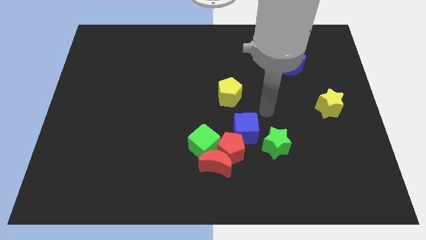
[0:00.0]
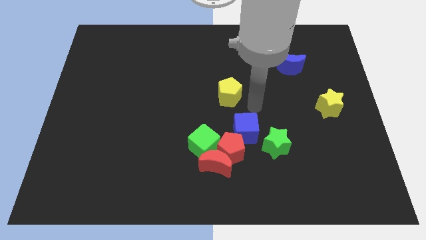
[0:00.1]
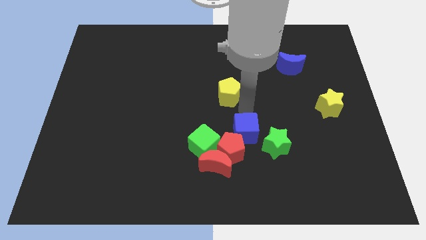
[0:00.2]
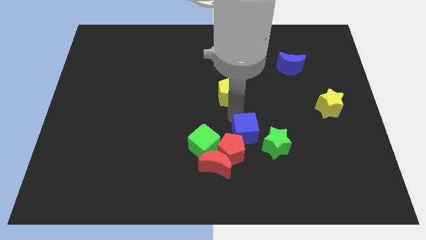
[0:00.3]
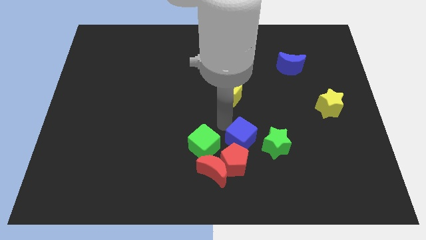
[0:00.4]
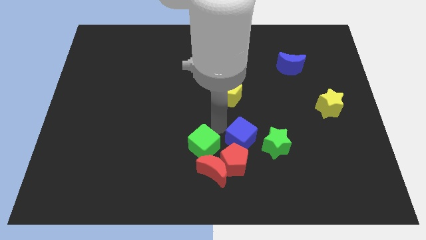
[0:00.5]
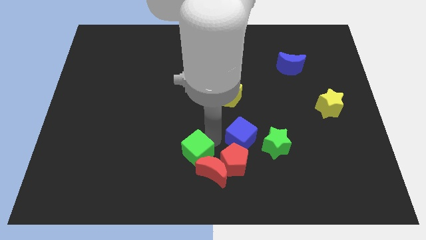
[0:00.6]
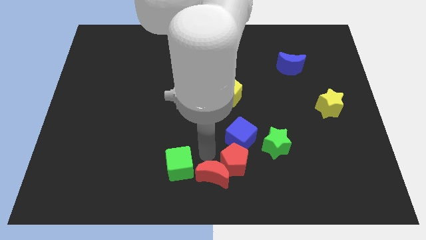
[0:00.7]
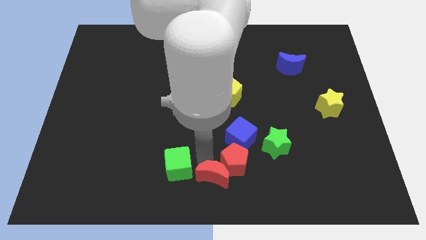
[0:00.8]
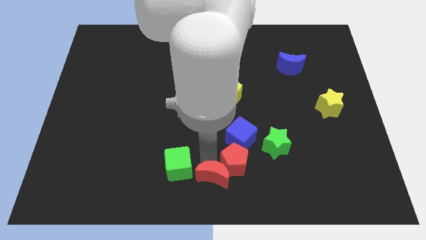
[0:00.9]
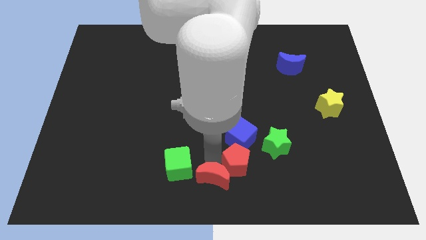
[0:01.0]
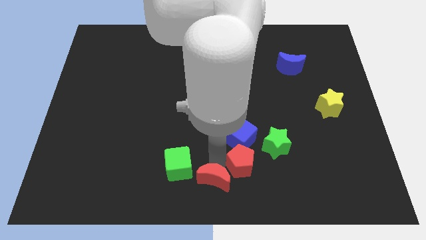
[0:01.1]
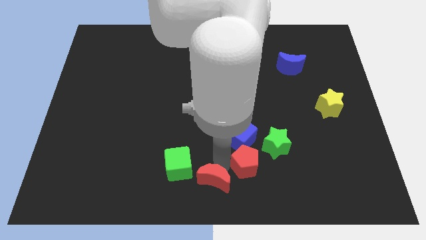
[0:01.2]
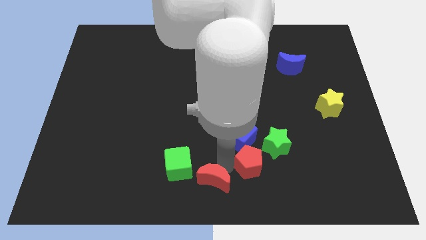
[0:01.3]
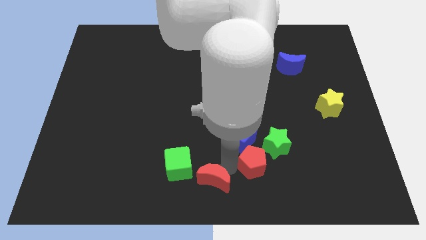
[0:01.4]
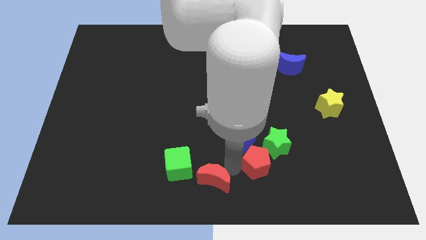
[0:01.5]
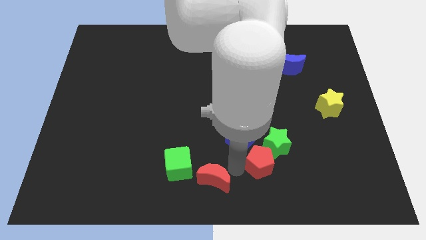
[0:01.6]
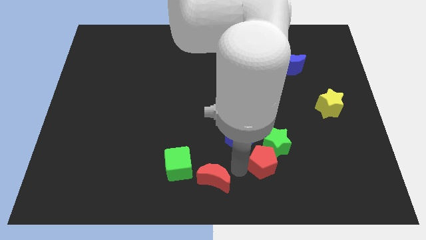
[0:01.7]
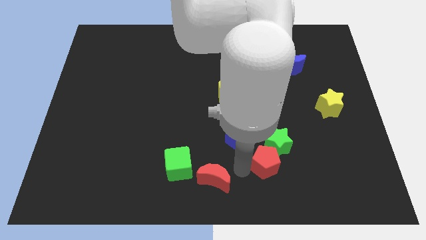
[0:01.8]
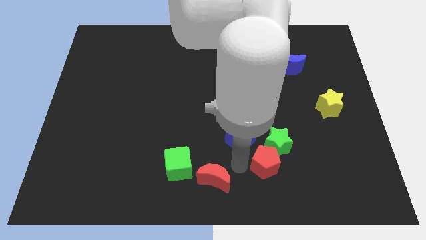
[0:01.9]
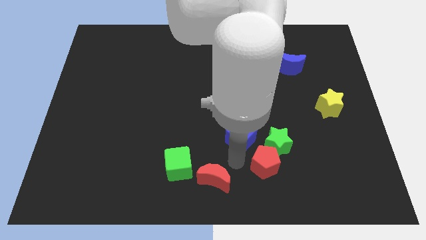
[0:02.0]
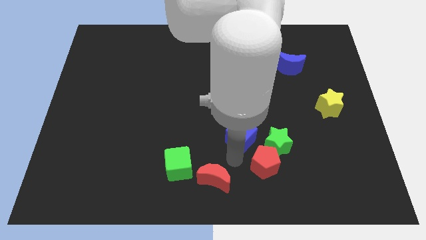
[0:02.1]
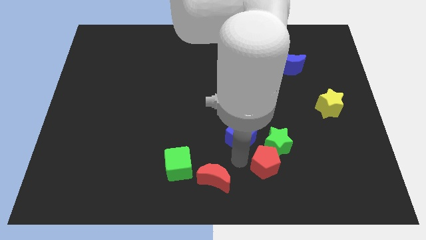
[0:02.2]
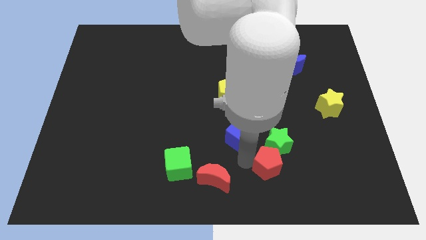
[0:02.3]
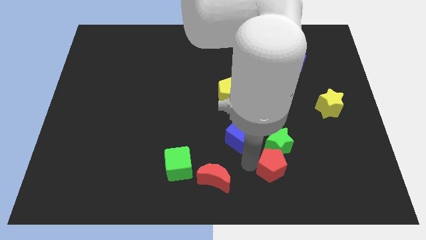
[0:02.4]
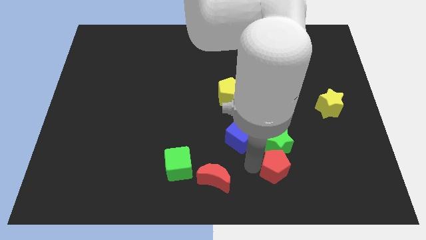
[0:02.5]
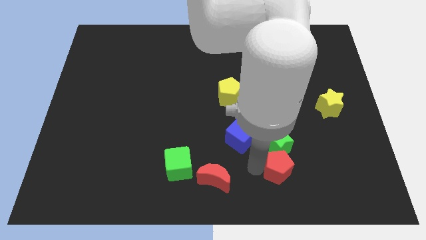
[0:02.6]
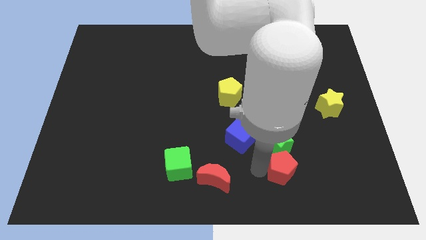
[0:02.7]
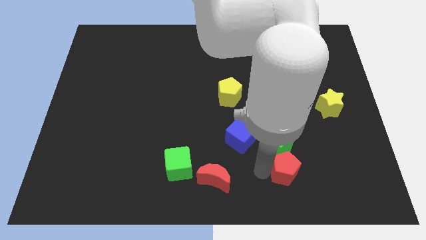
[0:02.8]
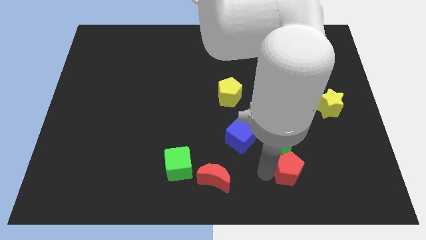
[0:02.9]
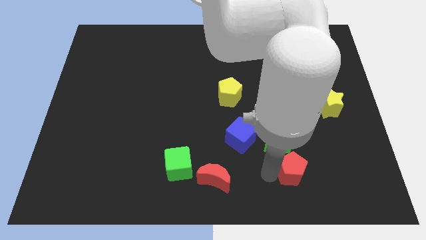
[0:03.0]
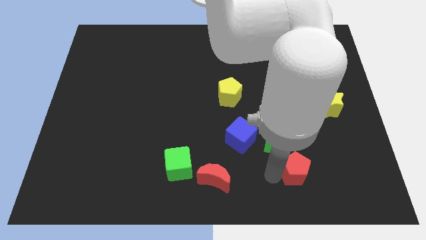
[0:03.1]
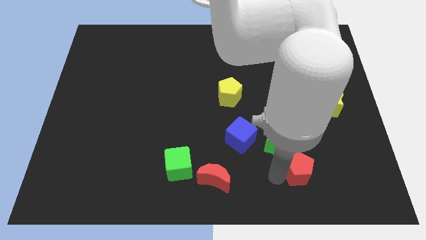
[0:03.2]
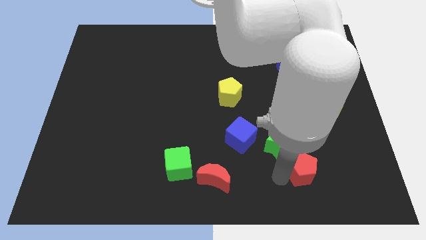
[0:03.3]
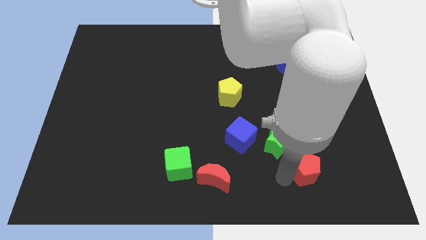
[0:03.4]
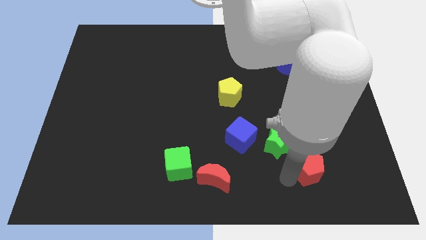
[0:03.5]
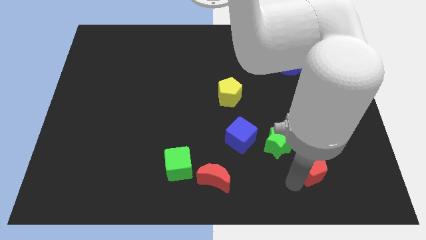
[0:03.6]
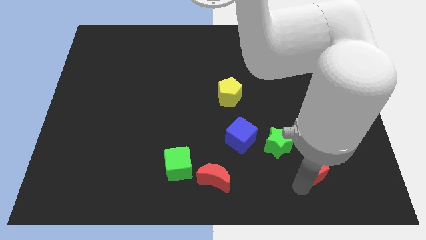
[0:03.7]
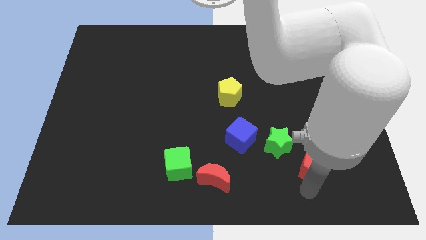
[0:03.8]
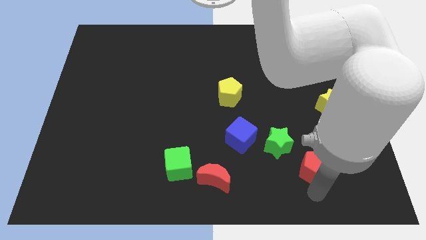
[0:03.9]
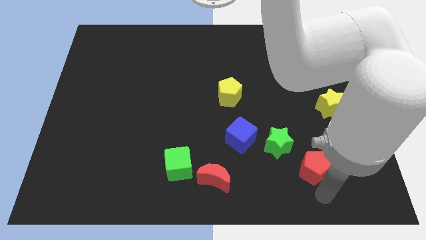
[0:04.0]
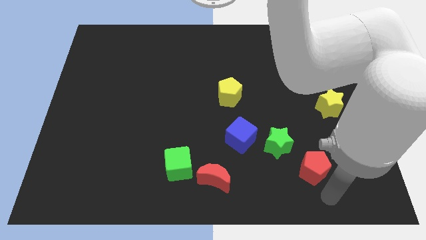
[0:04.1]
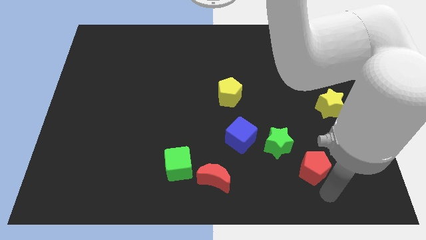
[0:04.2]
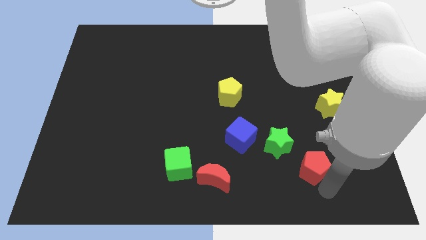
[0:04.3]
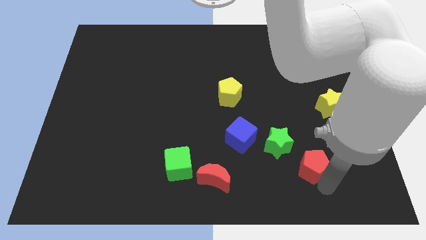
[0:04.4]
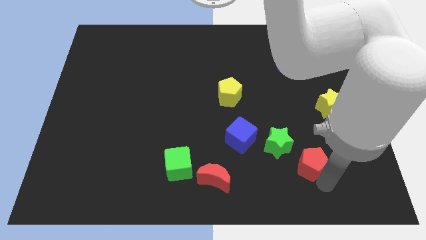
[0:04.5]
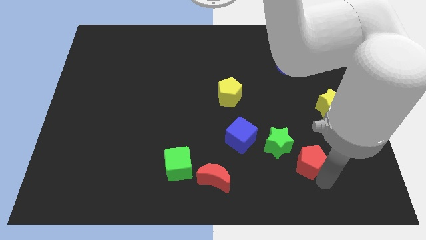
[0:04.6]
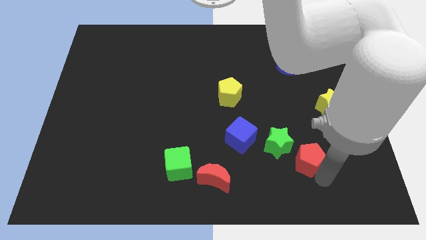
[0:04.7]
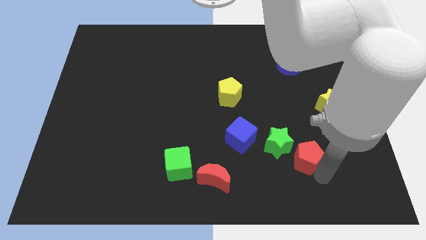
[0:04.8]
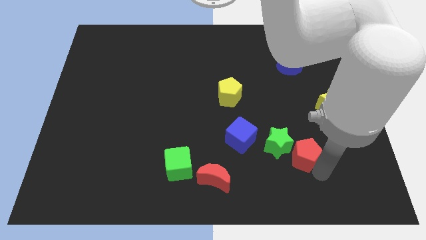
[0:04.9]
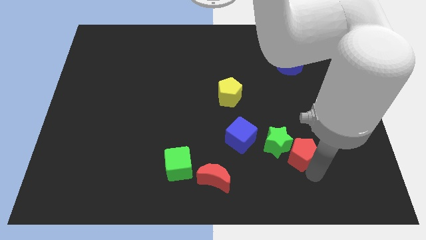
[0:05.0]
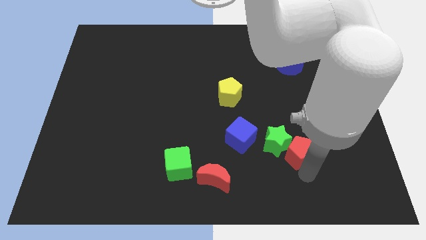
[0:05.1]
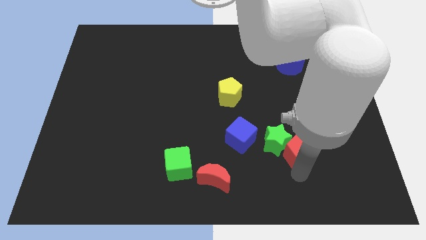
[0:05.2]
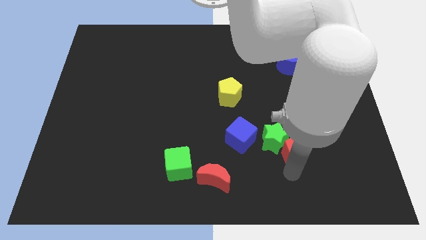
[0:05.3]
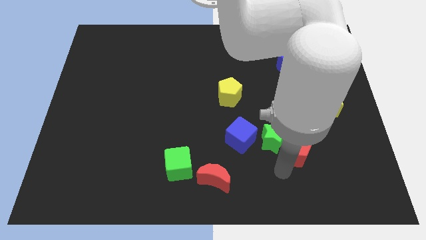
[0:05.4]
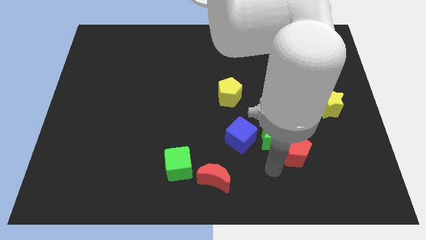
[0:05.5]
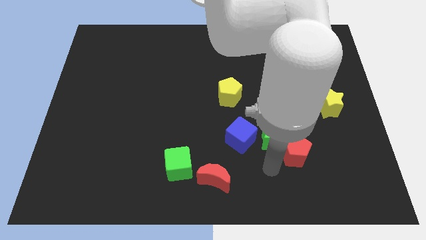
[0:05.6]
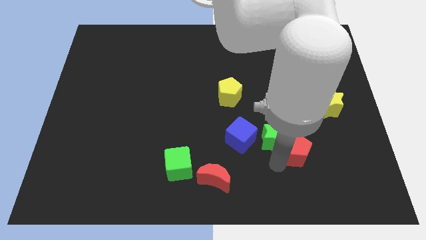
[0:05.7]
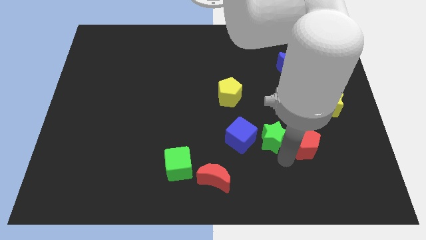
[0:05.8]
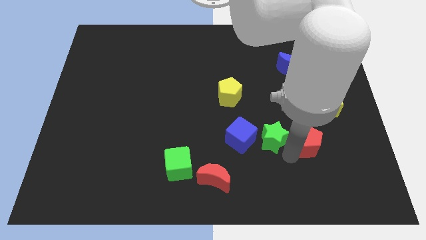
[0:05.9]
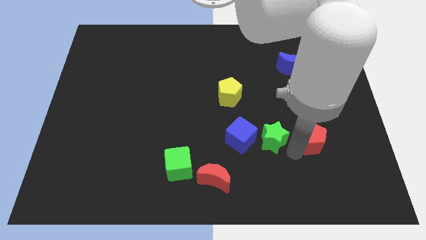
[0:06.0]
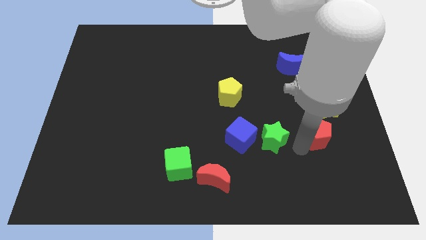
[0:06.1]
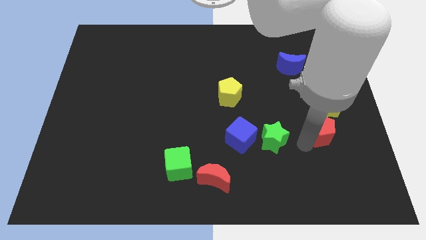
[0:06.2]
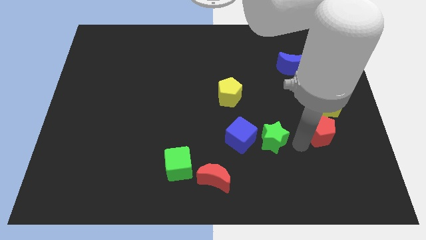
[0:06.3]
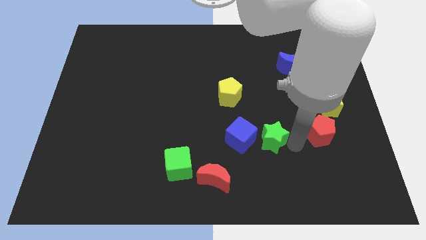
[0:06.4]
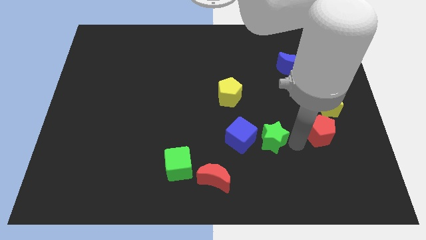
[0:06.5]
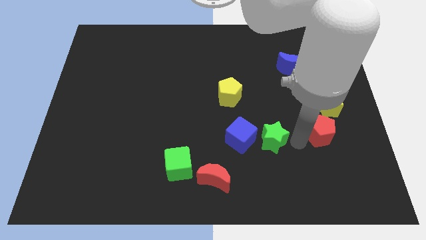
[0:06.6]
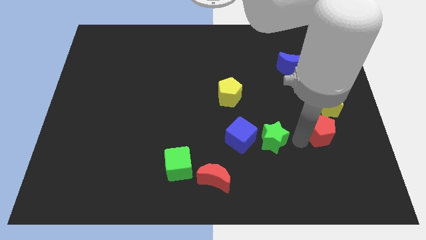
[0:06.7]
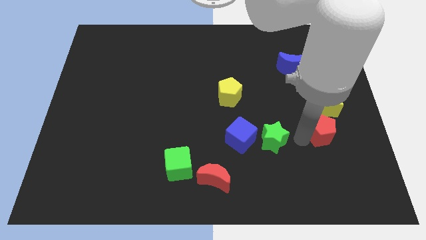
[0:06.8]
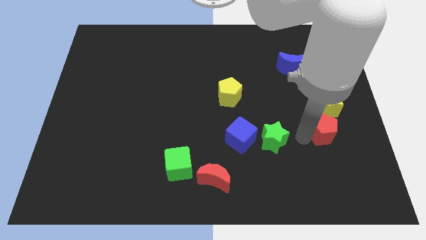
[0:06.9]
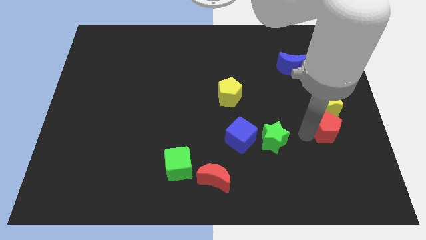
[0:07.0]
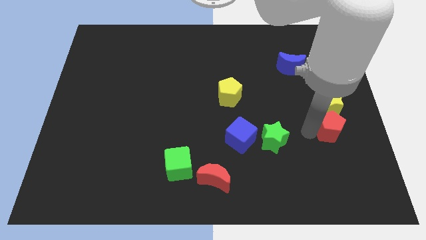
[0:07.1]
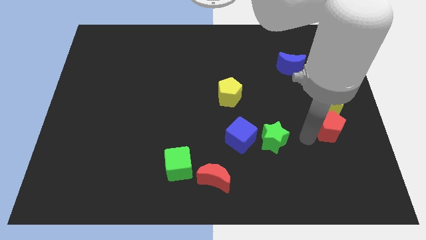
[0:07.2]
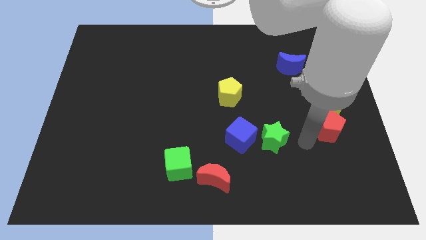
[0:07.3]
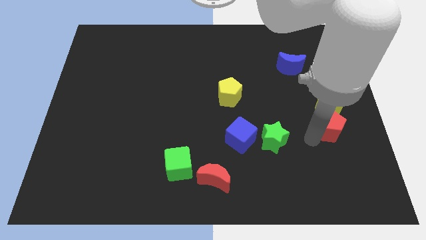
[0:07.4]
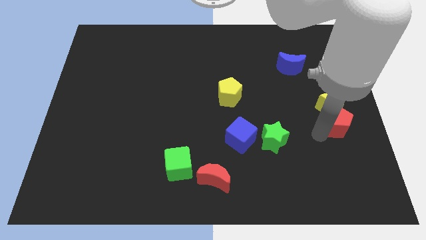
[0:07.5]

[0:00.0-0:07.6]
push the red pentagon to the right side of the board
